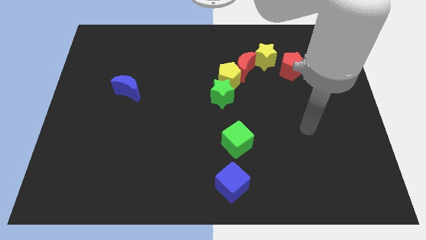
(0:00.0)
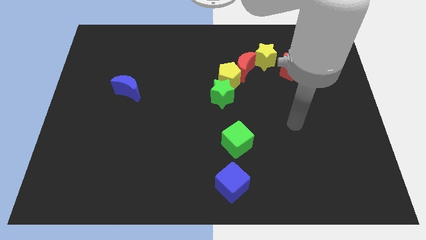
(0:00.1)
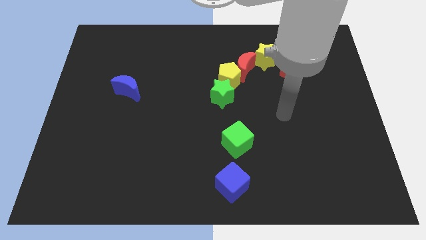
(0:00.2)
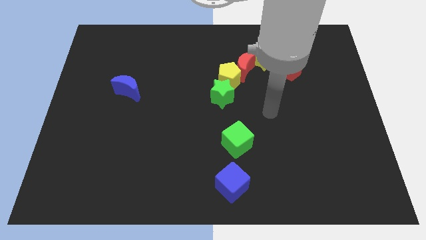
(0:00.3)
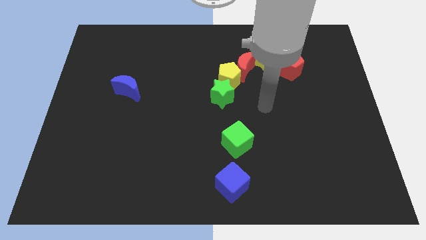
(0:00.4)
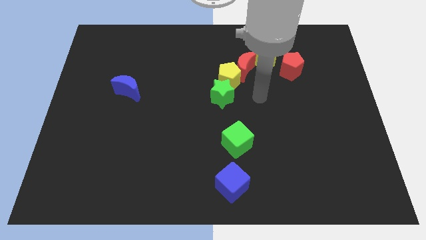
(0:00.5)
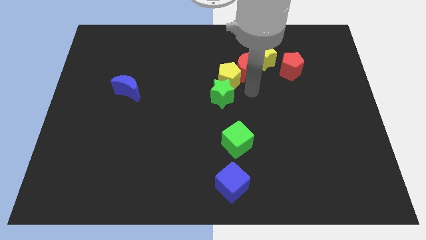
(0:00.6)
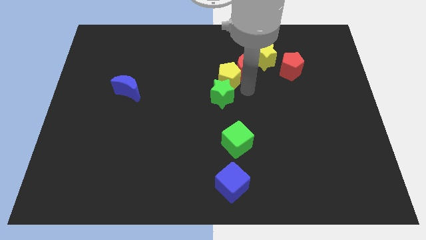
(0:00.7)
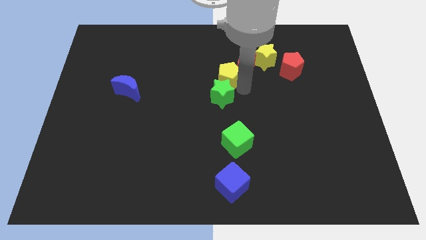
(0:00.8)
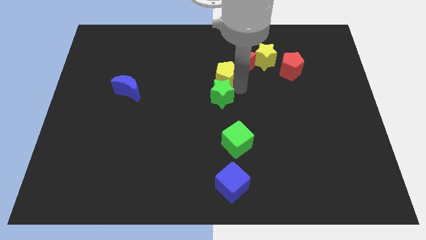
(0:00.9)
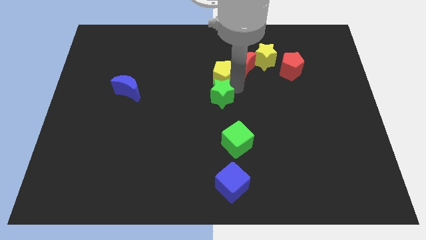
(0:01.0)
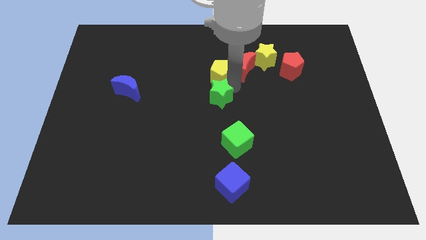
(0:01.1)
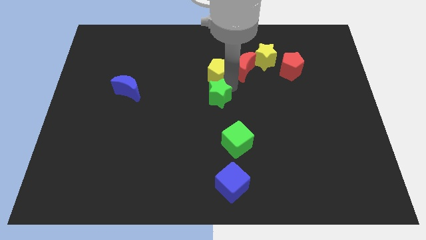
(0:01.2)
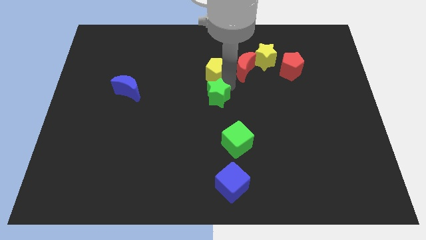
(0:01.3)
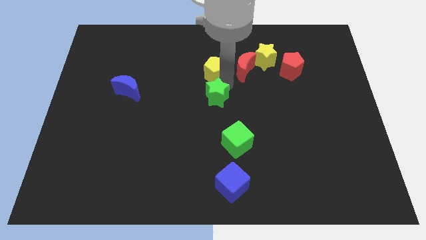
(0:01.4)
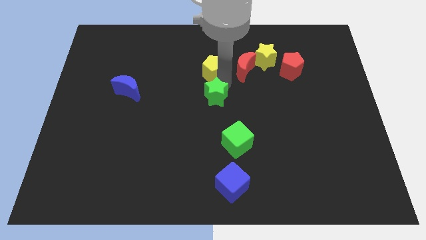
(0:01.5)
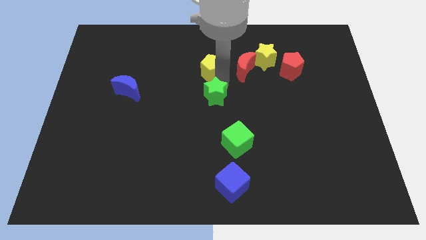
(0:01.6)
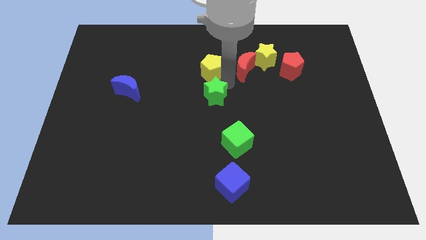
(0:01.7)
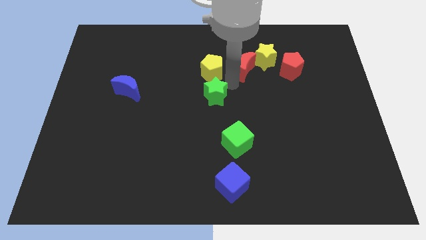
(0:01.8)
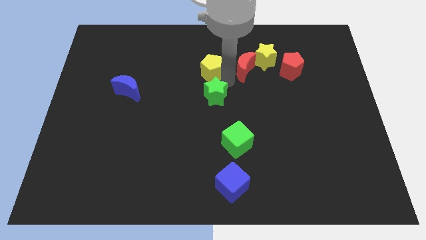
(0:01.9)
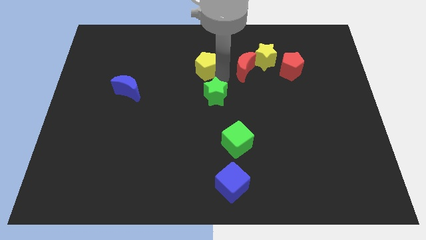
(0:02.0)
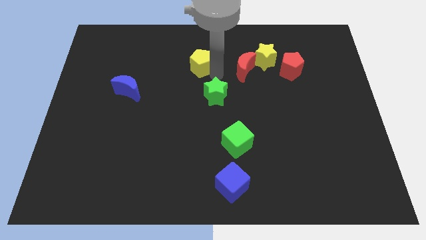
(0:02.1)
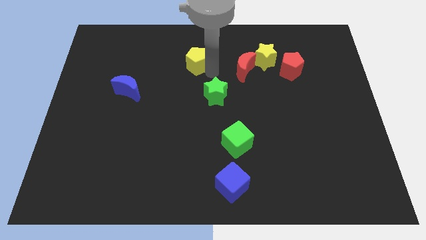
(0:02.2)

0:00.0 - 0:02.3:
pull the yellow pentagon apart from the red moon and green star

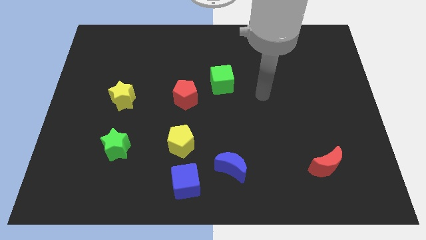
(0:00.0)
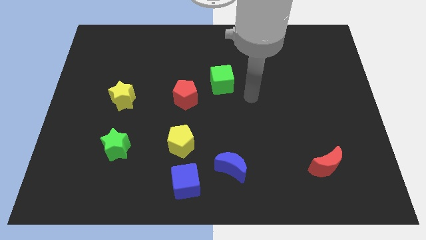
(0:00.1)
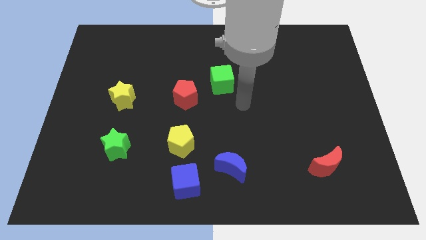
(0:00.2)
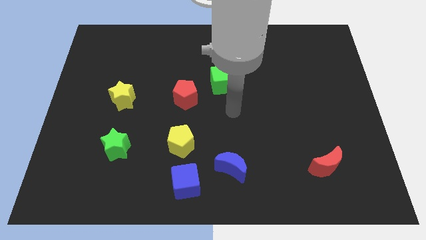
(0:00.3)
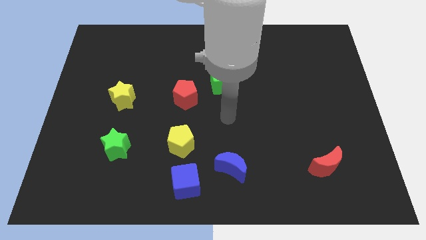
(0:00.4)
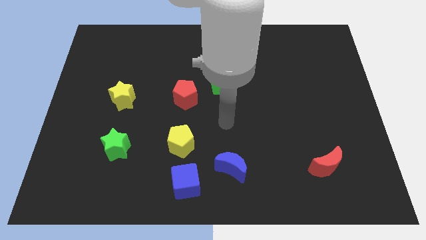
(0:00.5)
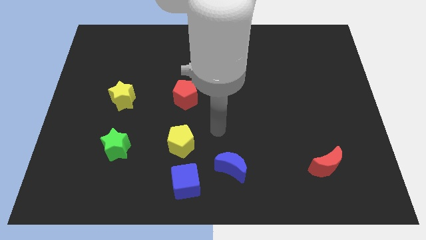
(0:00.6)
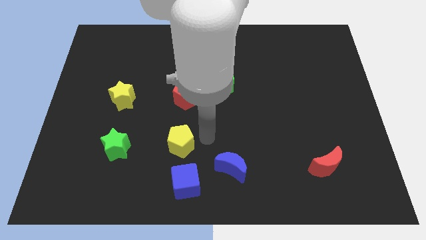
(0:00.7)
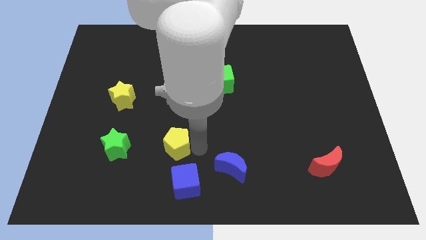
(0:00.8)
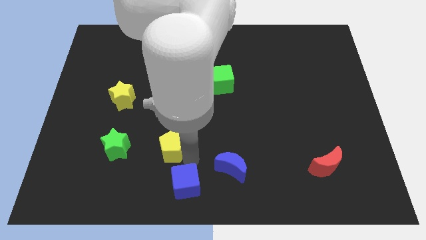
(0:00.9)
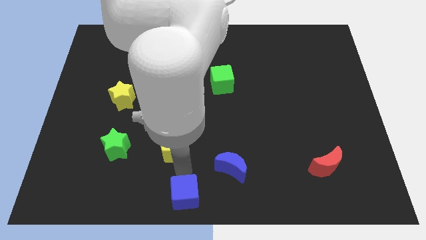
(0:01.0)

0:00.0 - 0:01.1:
pull the yellow pentagon apart from the blue cube

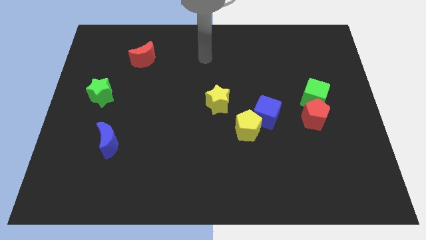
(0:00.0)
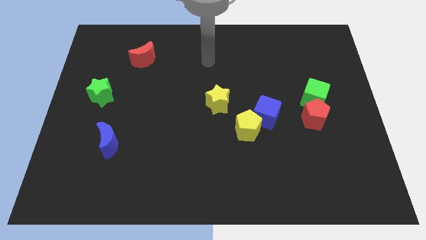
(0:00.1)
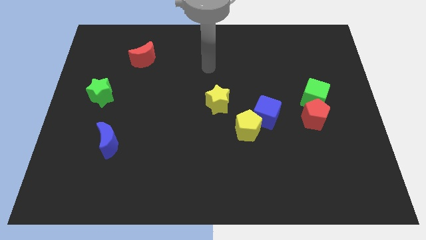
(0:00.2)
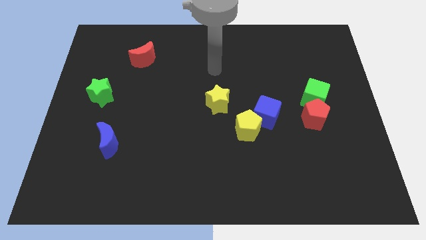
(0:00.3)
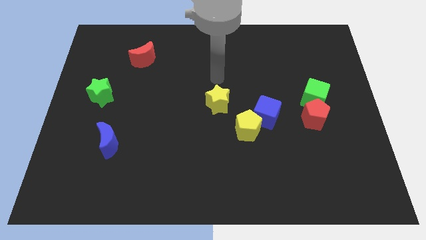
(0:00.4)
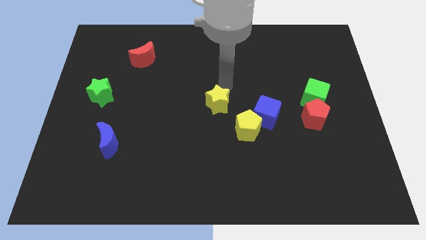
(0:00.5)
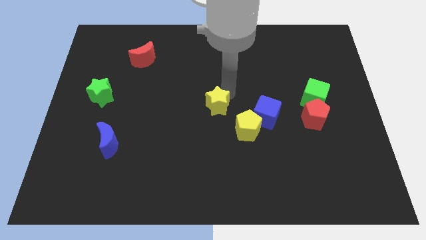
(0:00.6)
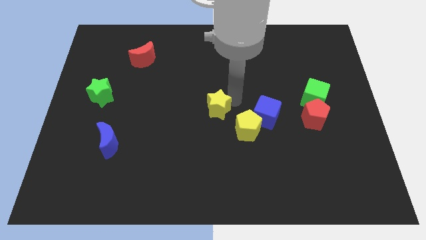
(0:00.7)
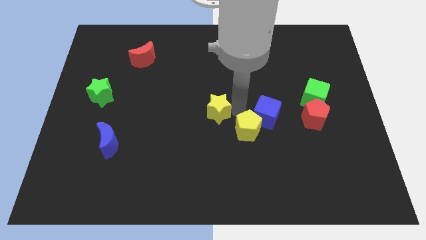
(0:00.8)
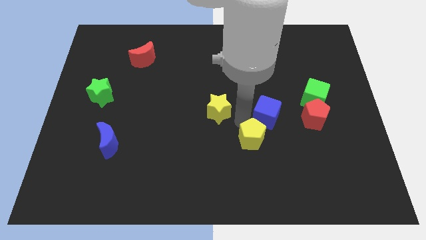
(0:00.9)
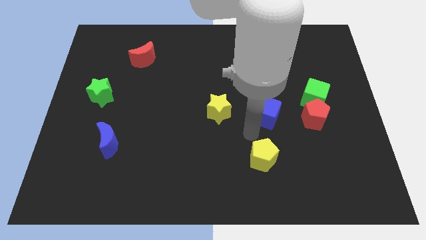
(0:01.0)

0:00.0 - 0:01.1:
pull the blue cube apart from the yellow pentagon

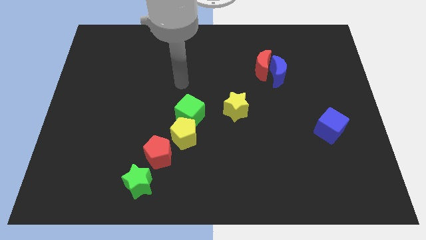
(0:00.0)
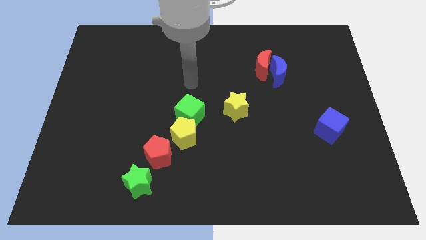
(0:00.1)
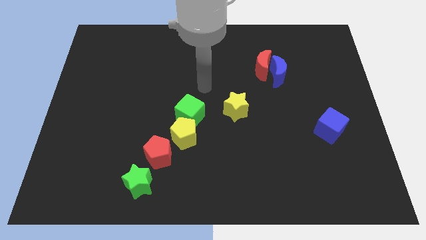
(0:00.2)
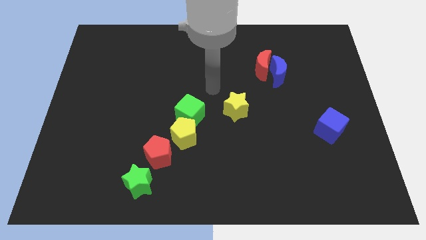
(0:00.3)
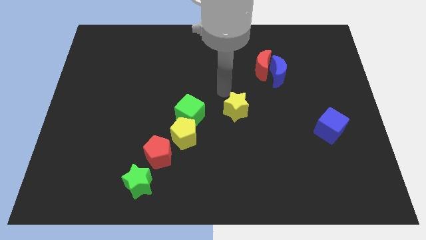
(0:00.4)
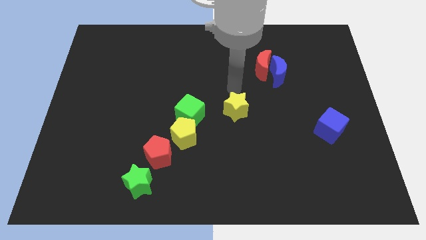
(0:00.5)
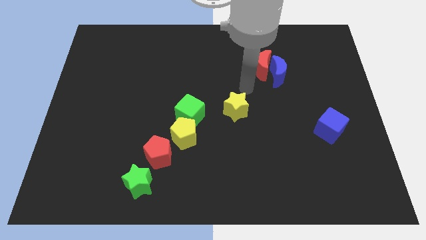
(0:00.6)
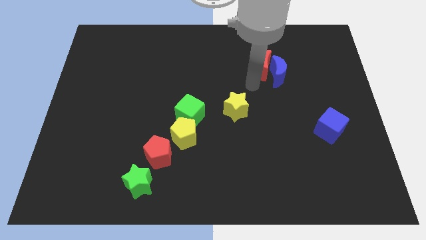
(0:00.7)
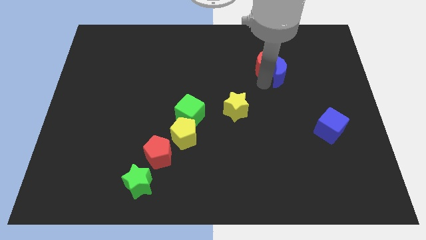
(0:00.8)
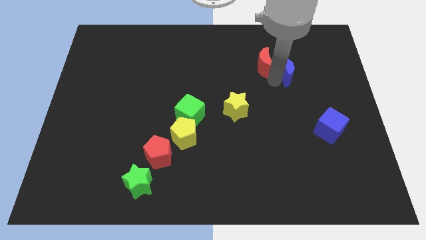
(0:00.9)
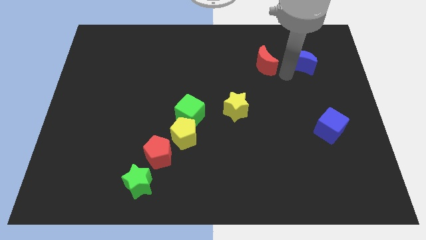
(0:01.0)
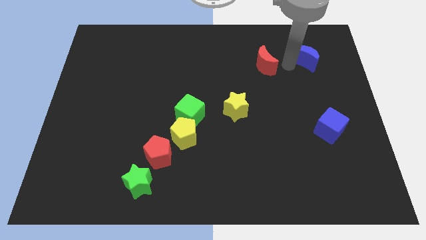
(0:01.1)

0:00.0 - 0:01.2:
separate the red moon from the blue moon

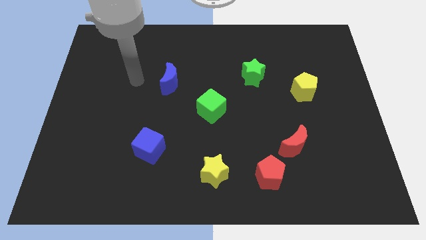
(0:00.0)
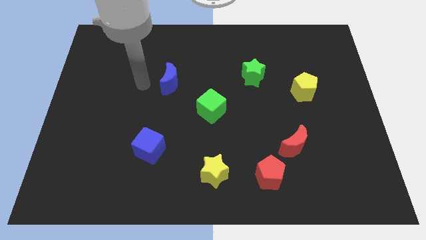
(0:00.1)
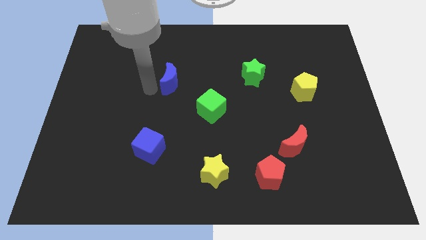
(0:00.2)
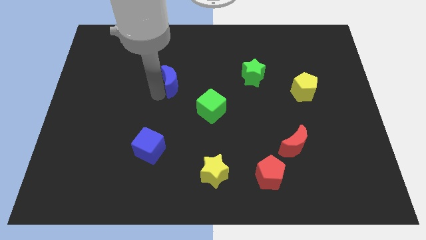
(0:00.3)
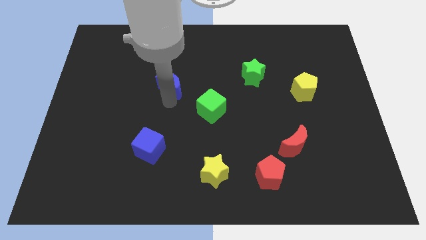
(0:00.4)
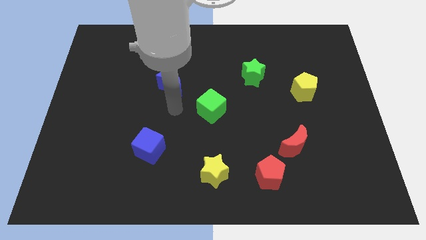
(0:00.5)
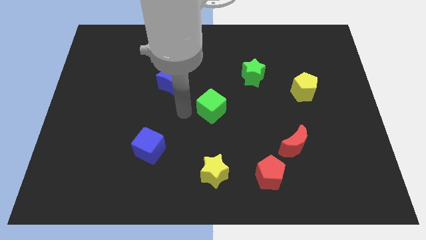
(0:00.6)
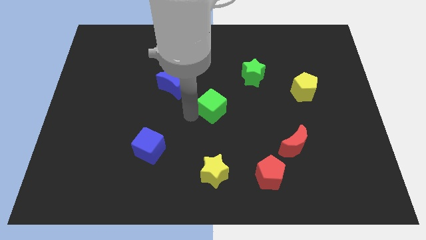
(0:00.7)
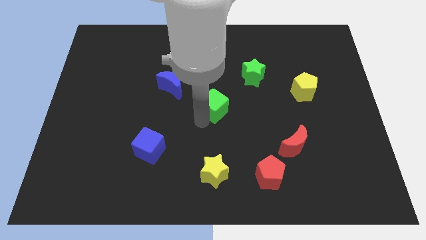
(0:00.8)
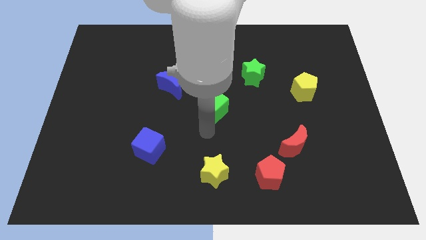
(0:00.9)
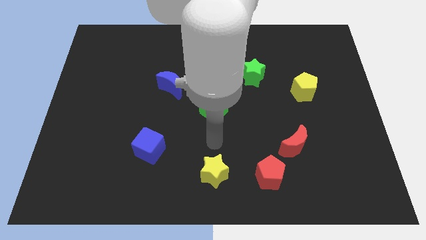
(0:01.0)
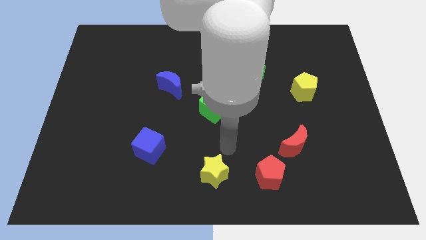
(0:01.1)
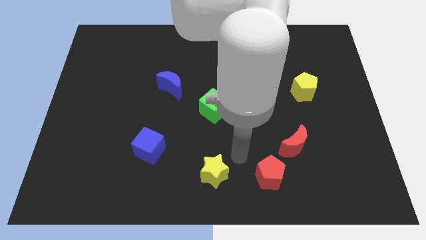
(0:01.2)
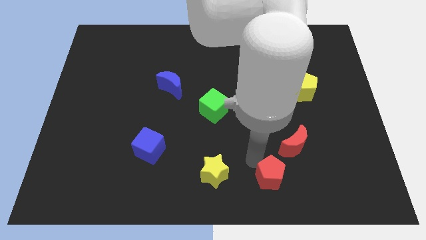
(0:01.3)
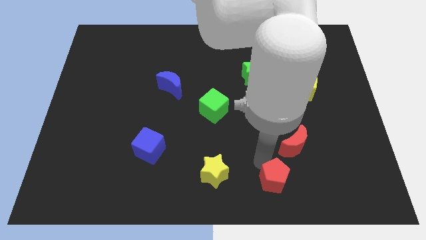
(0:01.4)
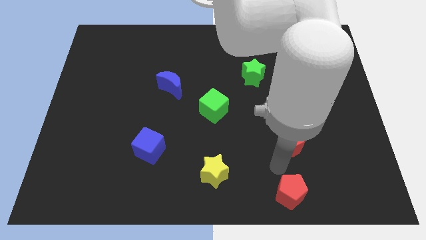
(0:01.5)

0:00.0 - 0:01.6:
move the red moon away from the red pentagon

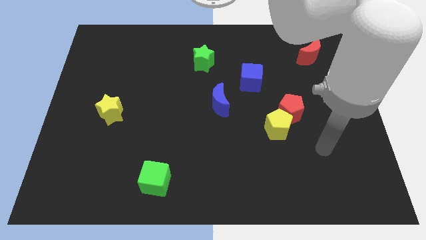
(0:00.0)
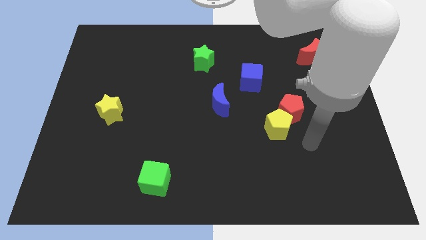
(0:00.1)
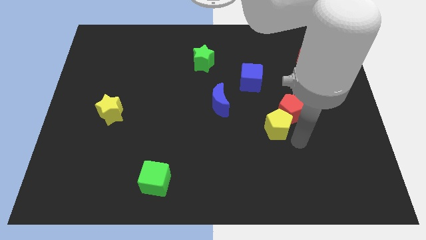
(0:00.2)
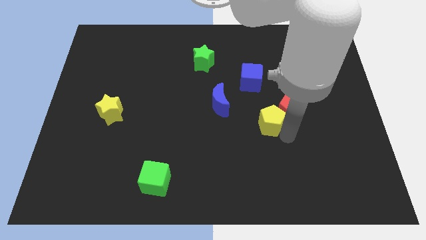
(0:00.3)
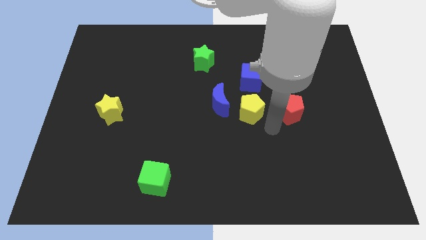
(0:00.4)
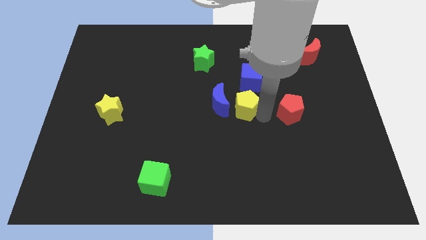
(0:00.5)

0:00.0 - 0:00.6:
pull the red pentagon apart from the yellow pentagon

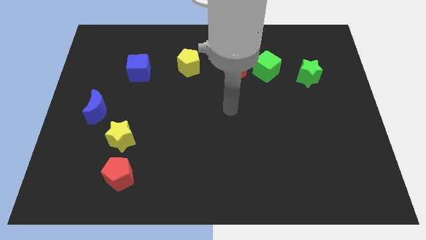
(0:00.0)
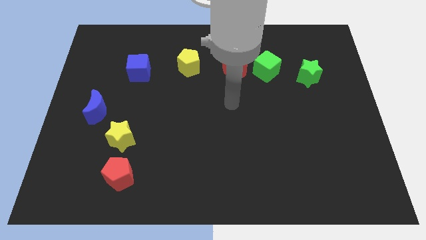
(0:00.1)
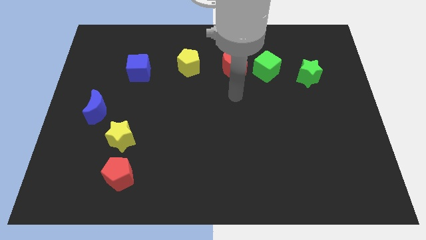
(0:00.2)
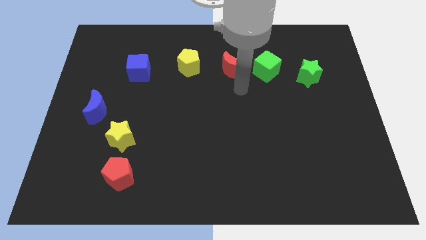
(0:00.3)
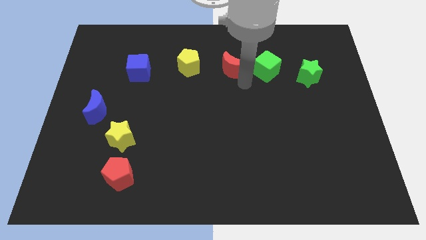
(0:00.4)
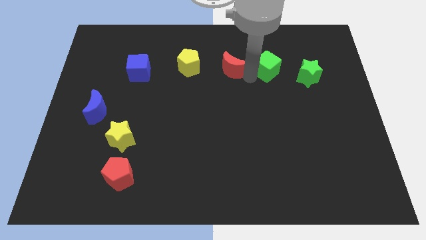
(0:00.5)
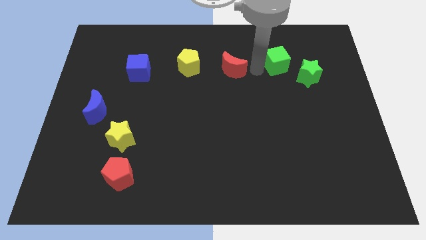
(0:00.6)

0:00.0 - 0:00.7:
separate the red moon from the green cube

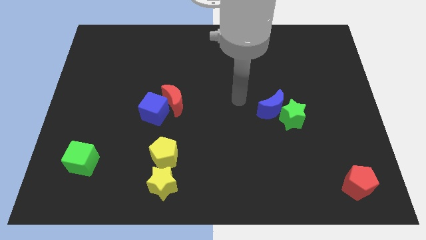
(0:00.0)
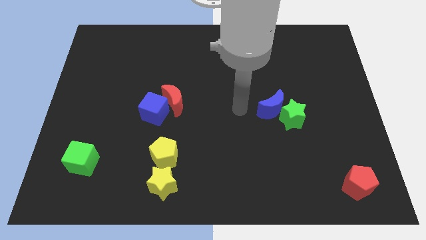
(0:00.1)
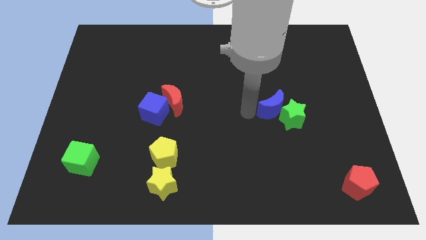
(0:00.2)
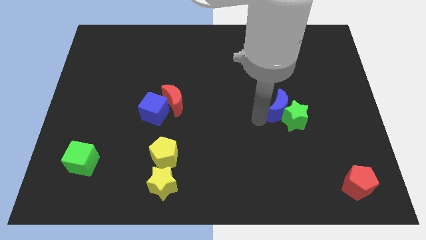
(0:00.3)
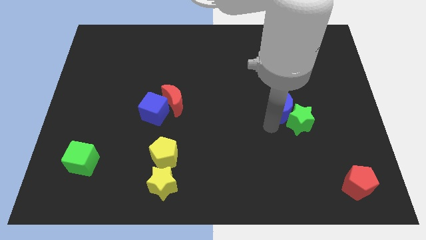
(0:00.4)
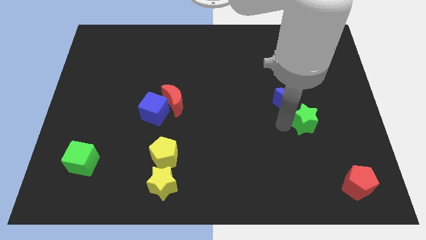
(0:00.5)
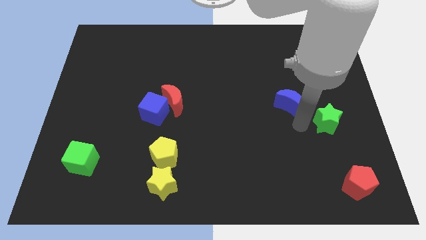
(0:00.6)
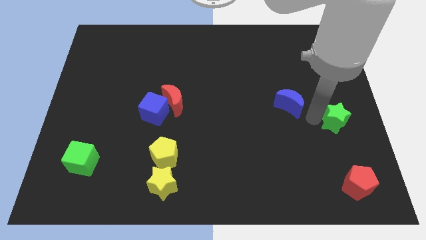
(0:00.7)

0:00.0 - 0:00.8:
move the blue moon away from the green star
